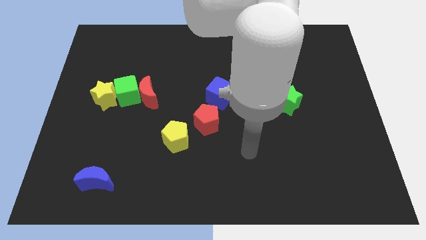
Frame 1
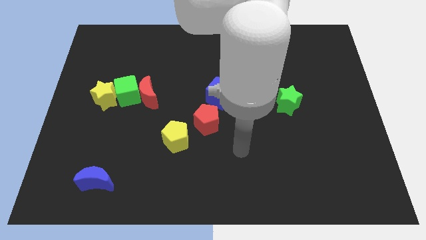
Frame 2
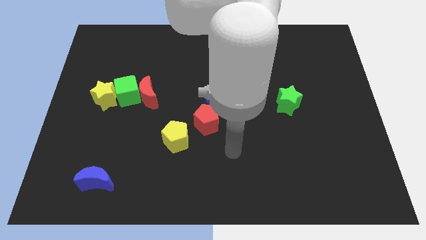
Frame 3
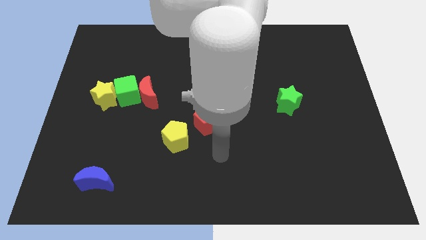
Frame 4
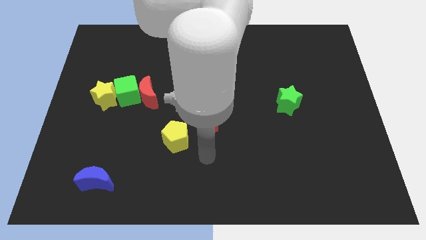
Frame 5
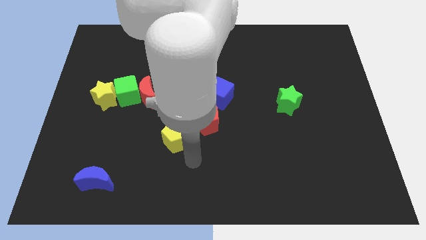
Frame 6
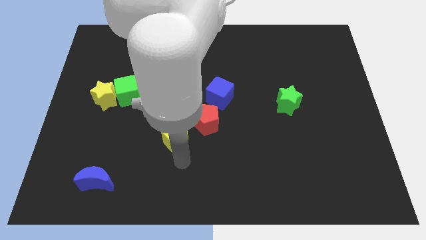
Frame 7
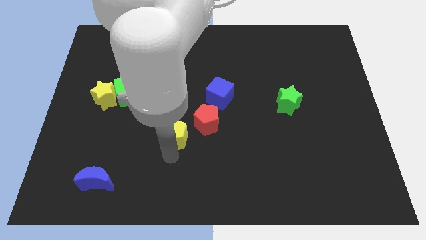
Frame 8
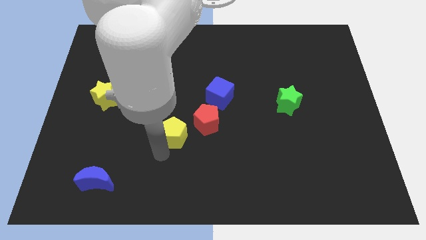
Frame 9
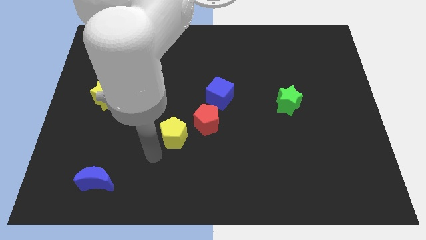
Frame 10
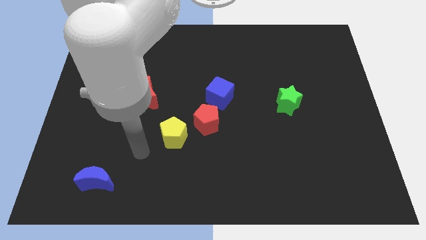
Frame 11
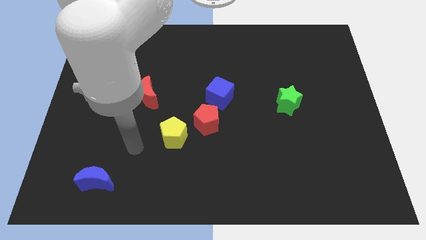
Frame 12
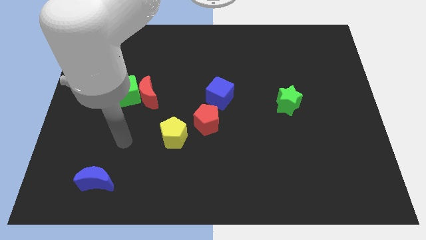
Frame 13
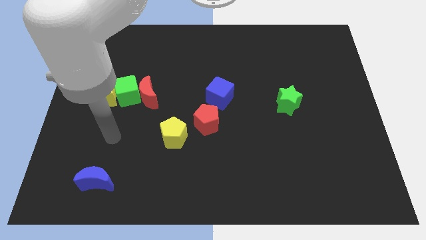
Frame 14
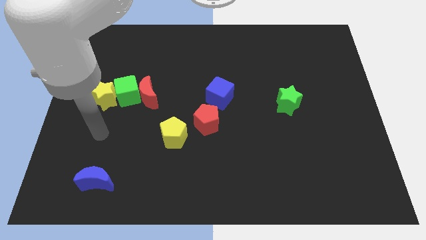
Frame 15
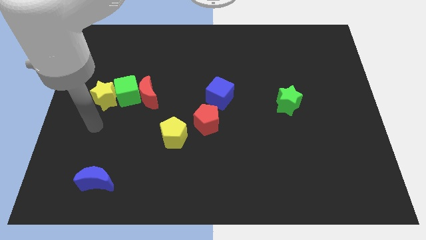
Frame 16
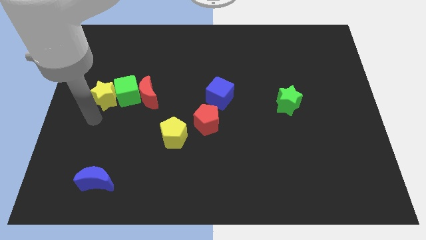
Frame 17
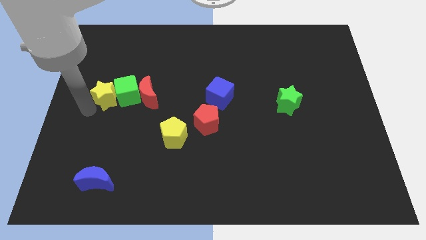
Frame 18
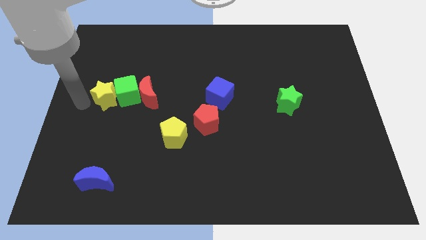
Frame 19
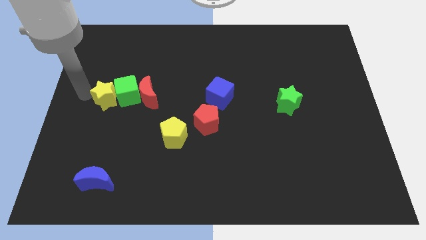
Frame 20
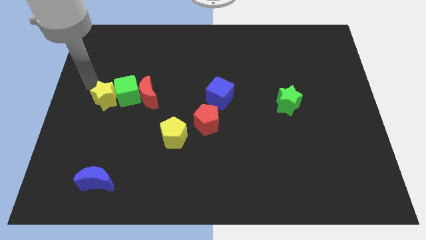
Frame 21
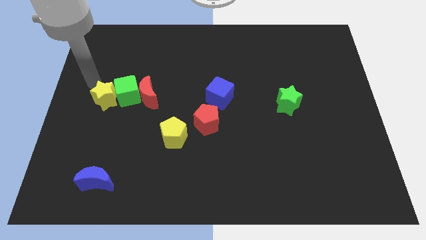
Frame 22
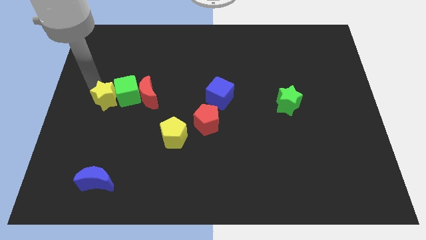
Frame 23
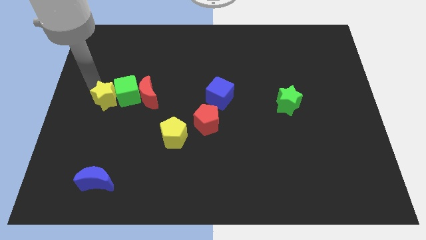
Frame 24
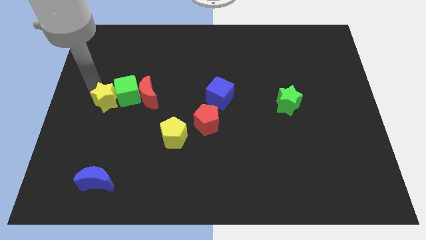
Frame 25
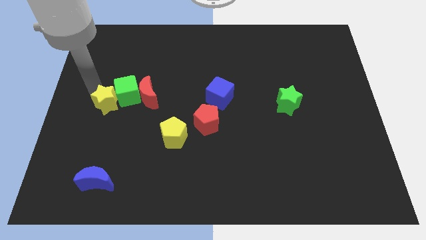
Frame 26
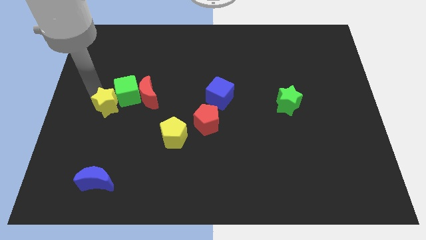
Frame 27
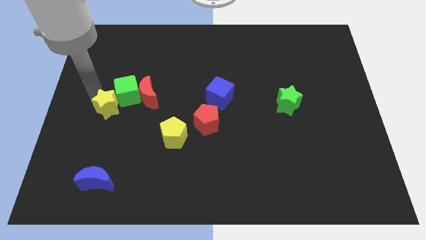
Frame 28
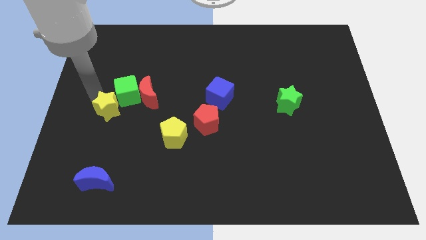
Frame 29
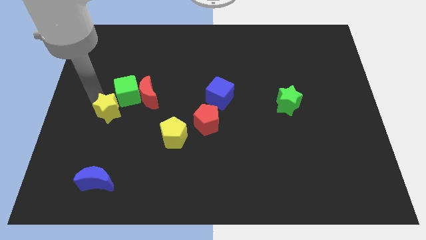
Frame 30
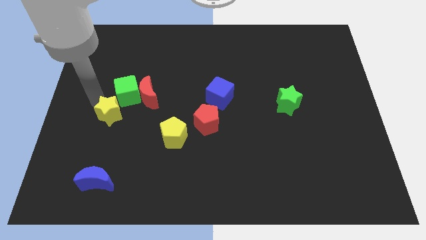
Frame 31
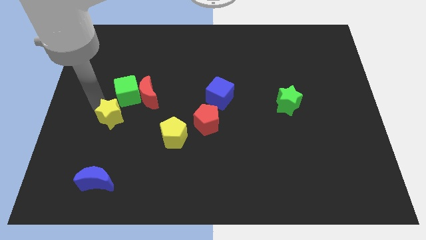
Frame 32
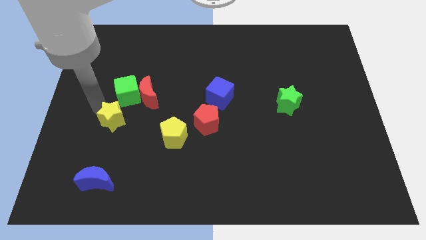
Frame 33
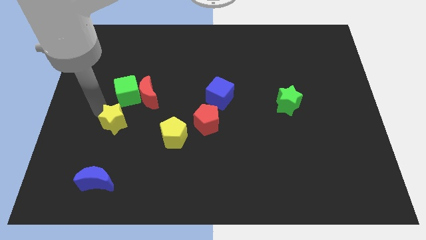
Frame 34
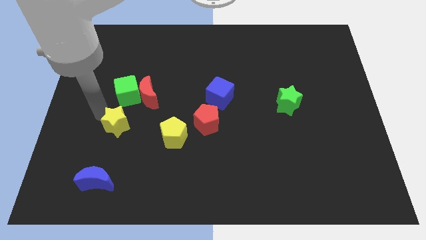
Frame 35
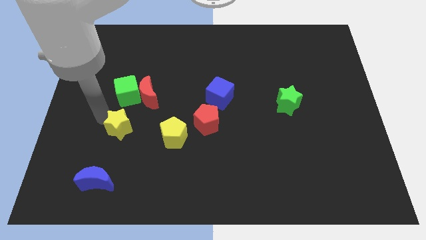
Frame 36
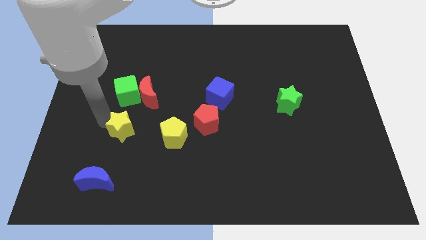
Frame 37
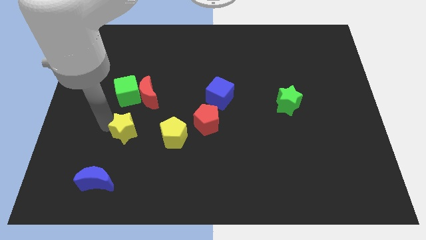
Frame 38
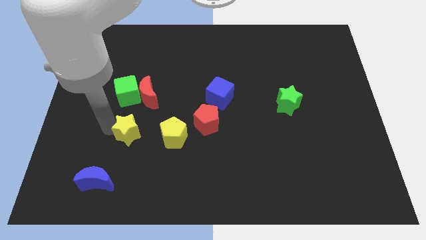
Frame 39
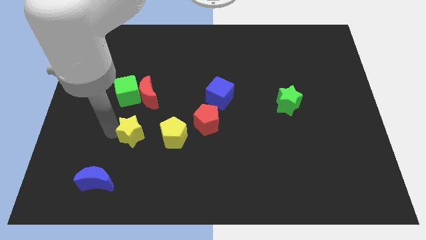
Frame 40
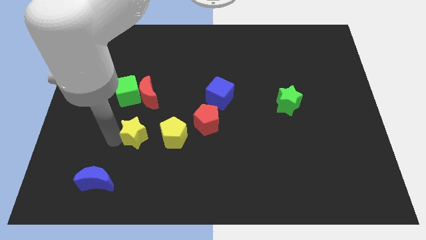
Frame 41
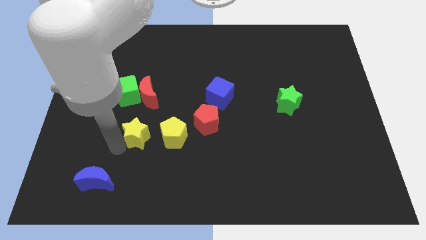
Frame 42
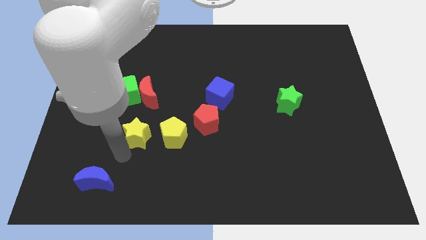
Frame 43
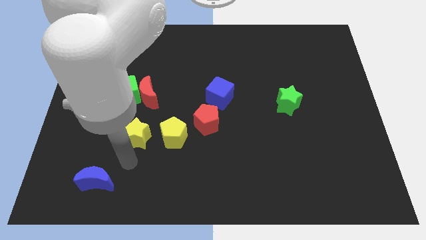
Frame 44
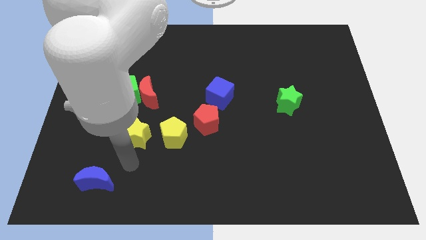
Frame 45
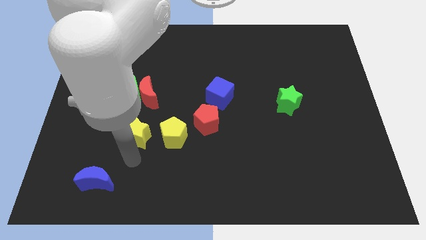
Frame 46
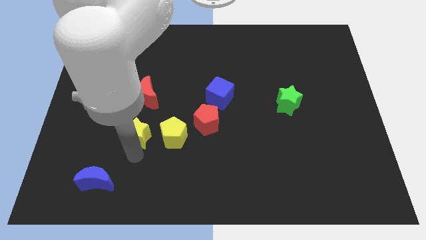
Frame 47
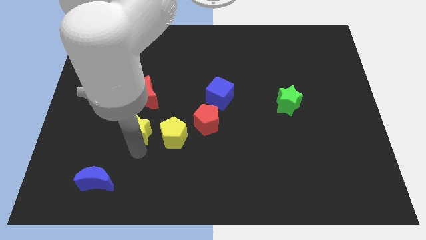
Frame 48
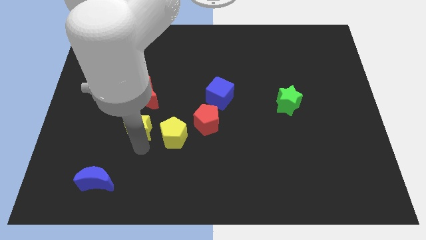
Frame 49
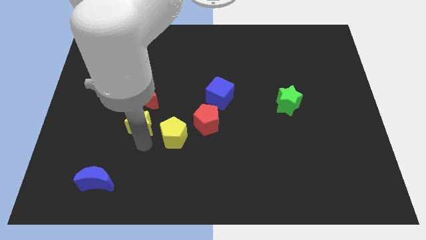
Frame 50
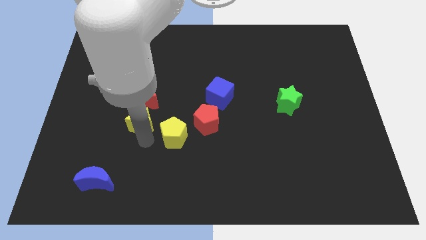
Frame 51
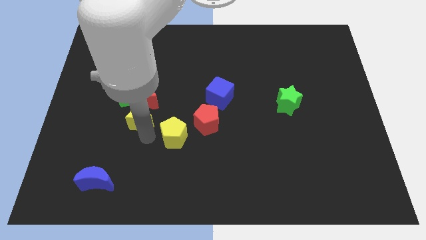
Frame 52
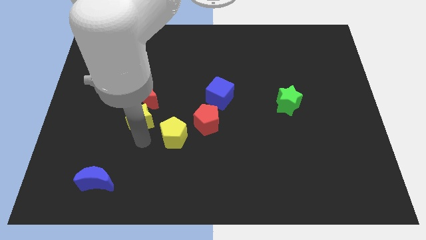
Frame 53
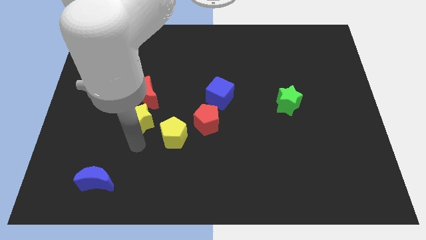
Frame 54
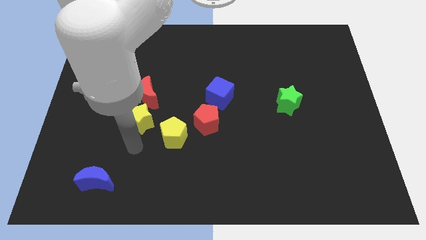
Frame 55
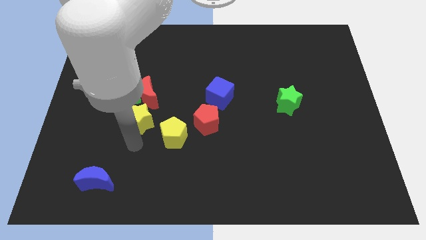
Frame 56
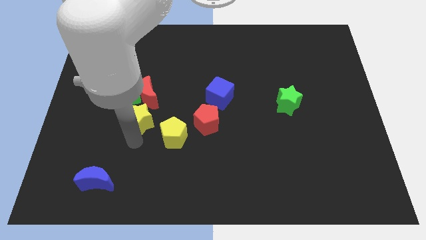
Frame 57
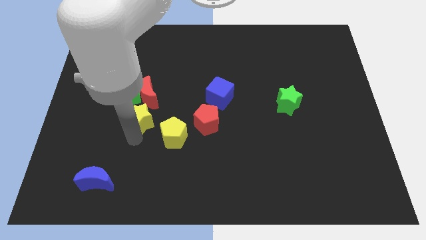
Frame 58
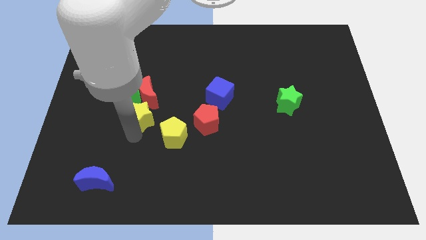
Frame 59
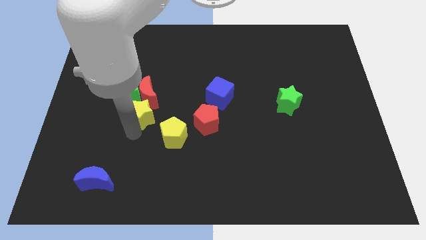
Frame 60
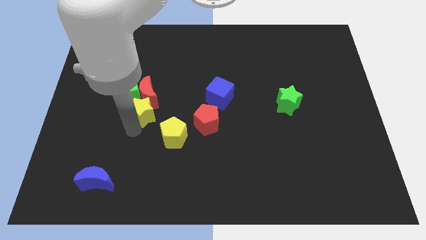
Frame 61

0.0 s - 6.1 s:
move the yellow star to the red moon
